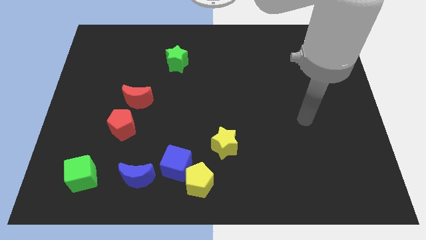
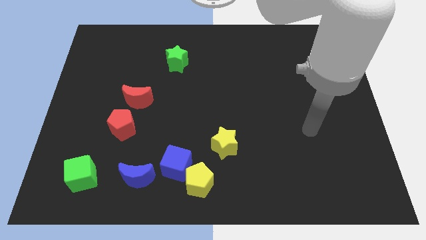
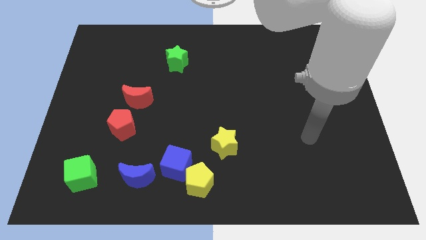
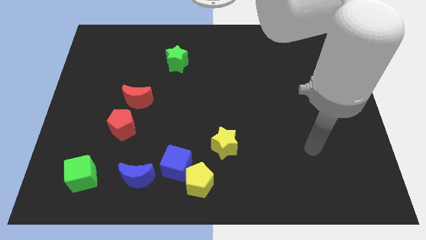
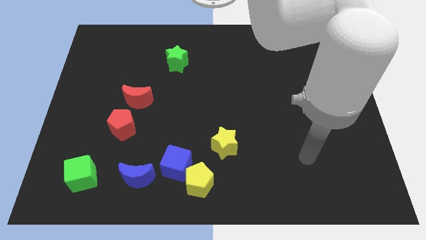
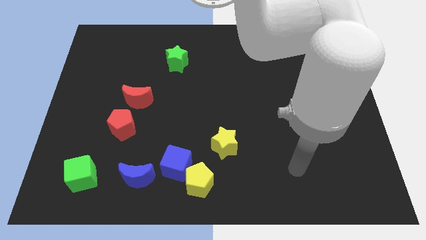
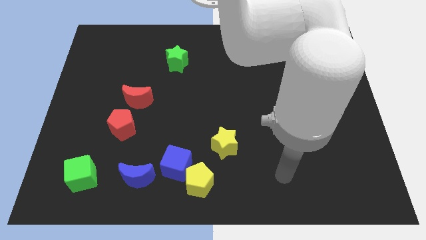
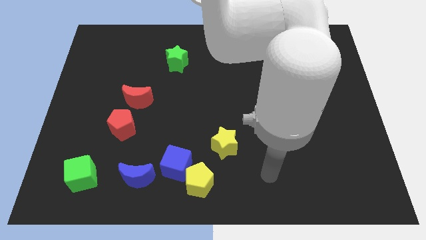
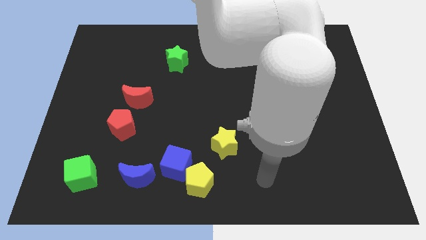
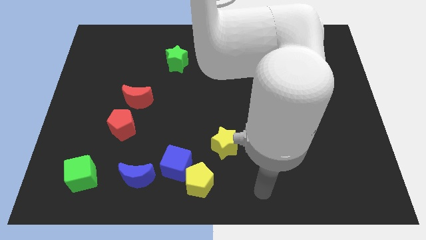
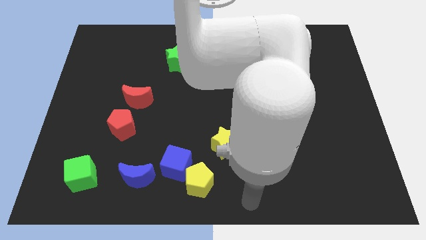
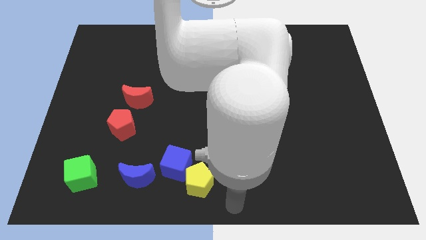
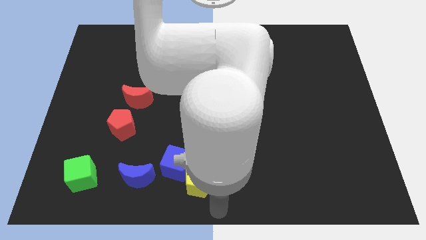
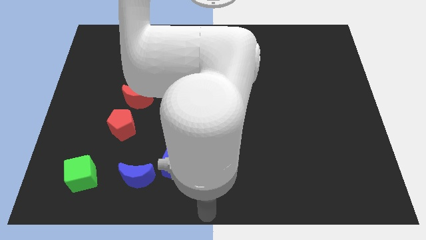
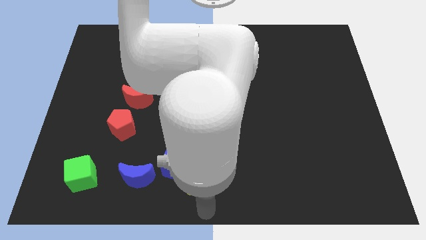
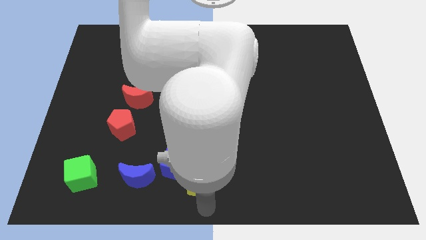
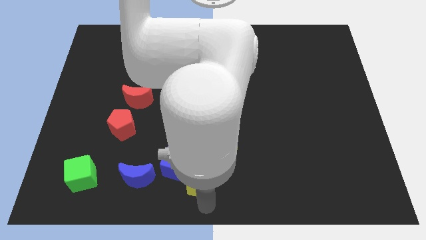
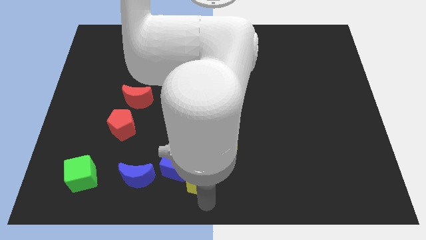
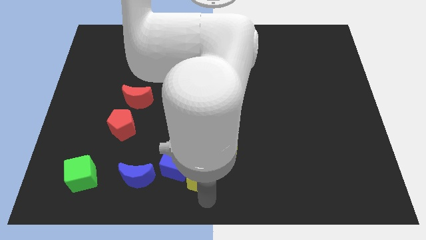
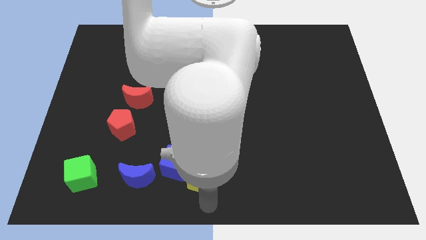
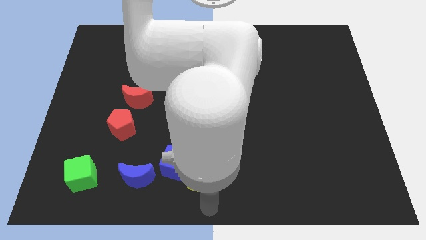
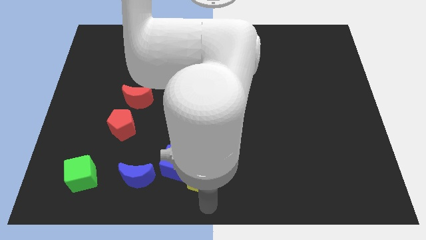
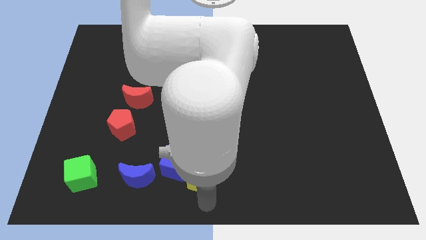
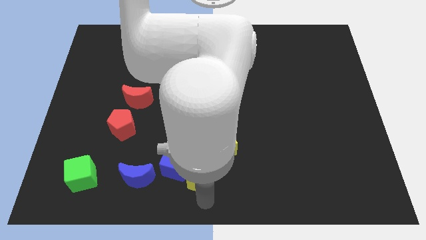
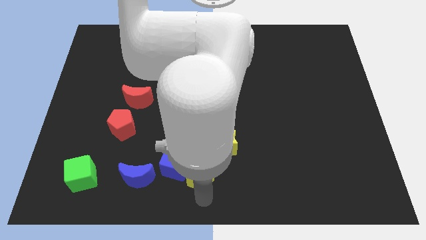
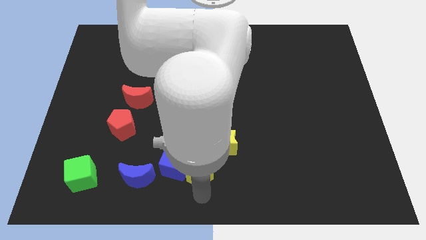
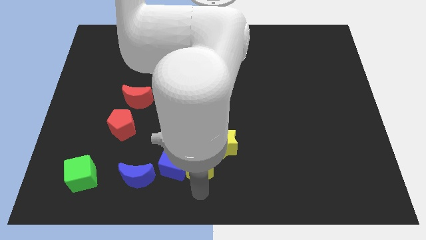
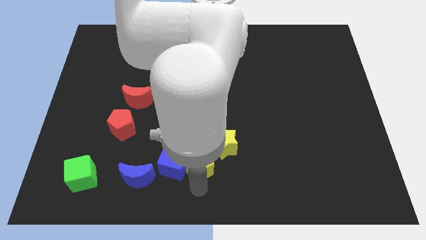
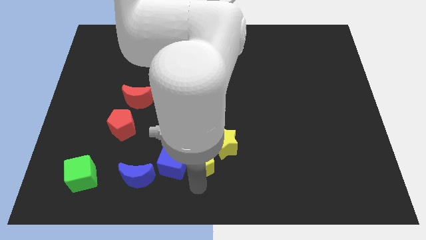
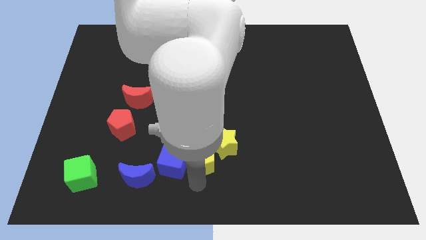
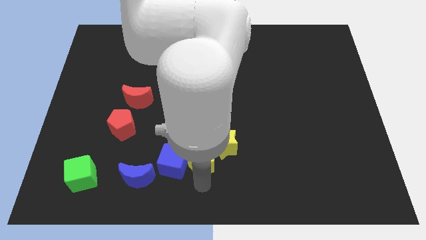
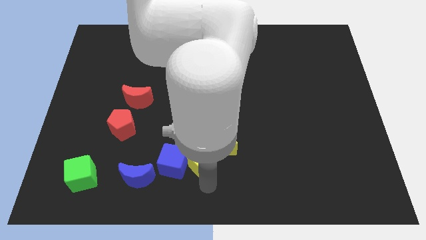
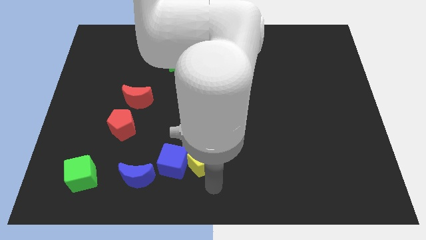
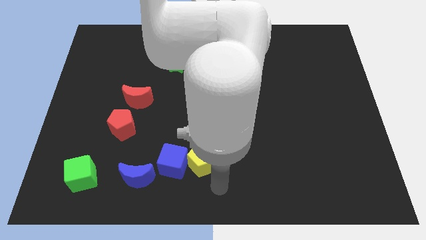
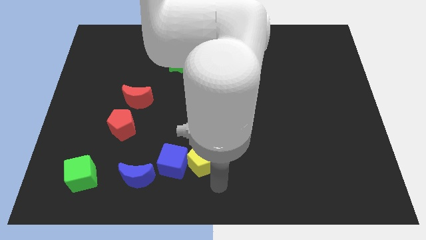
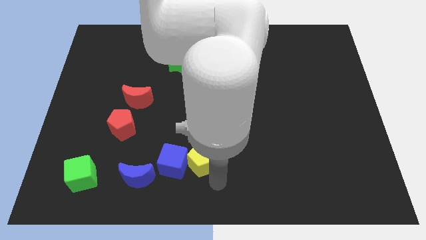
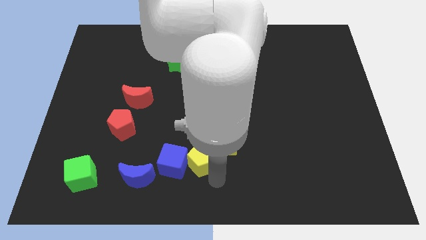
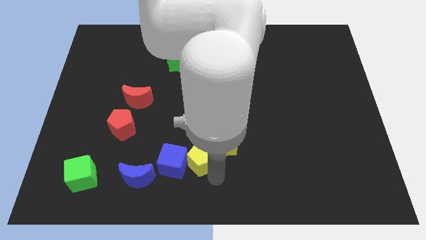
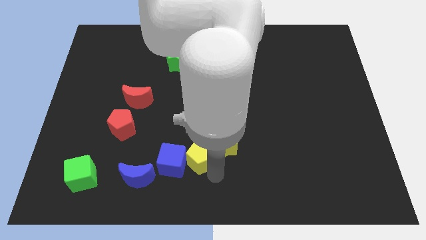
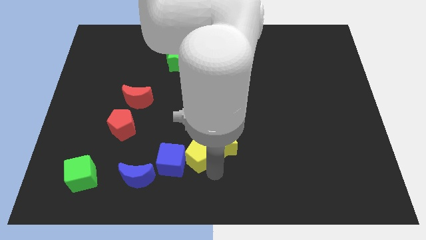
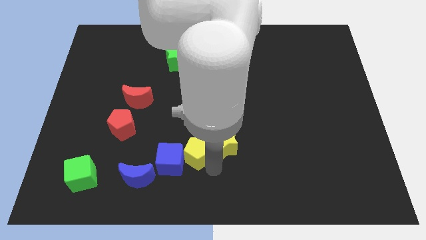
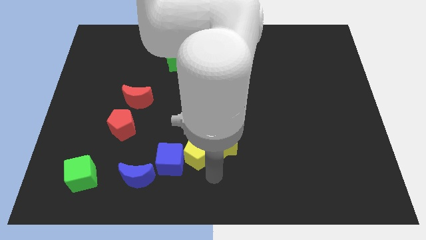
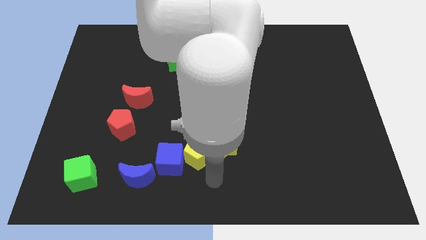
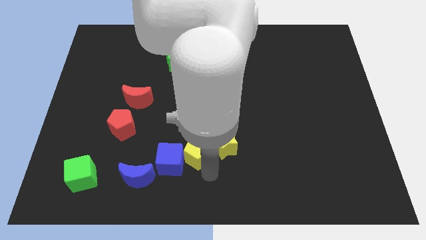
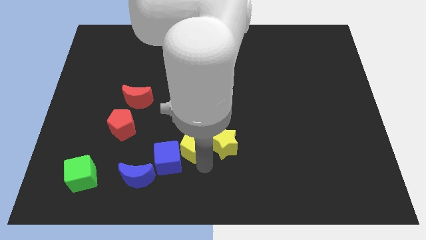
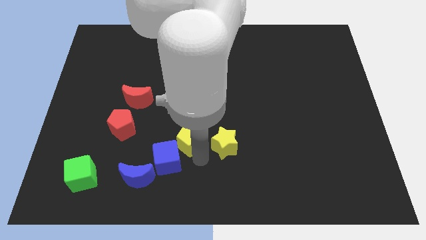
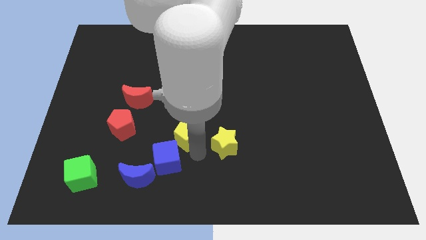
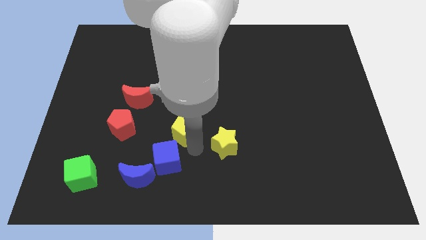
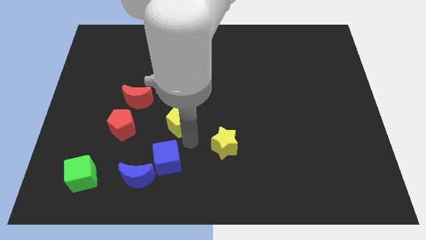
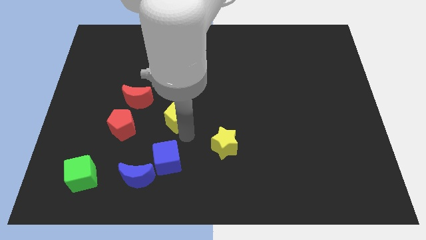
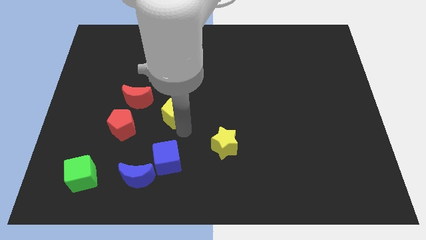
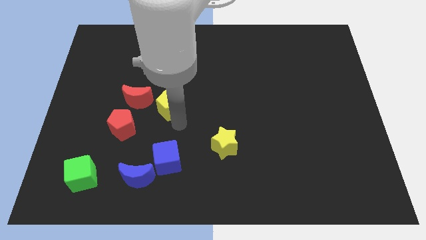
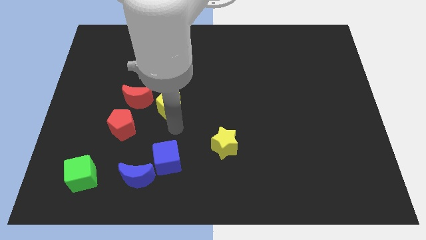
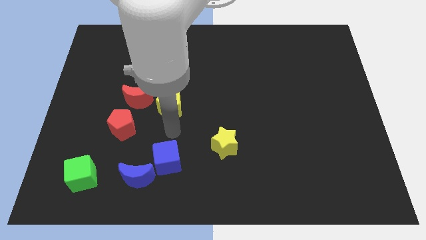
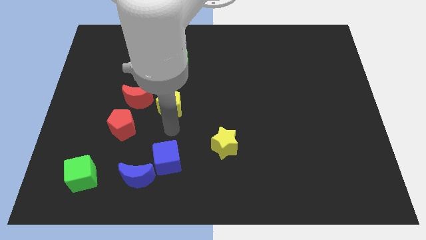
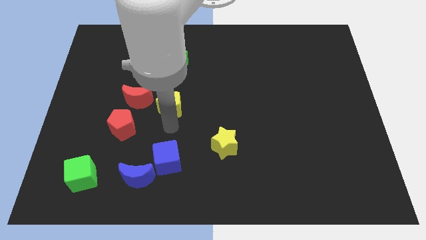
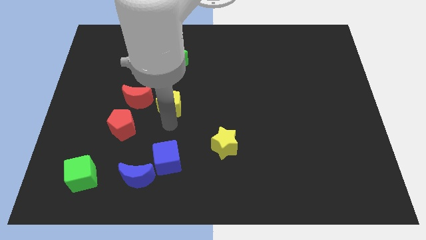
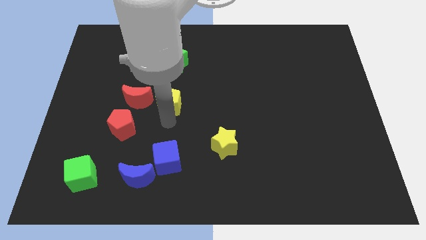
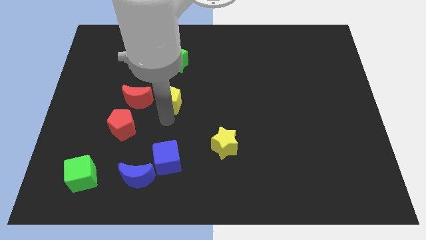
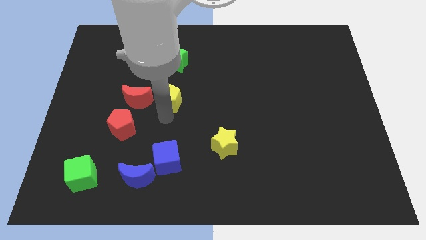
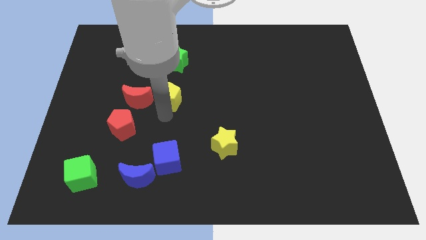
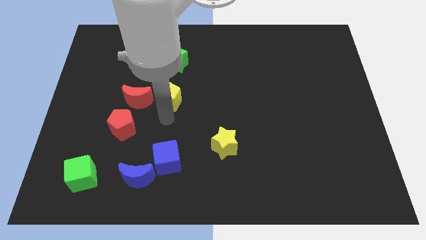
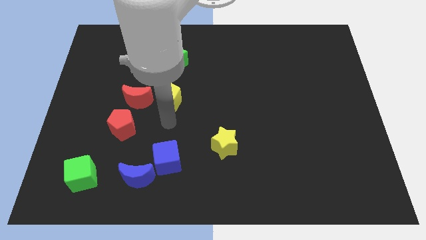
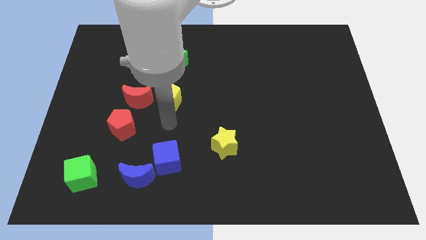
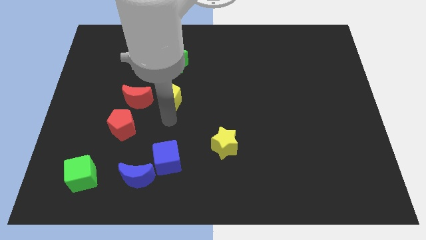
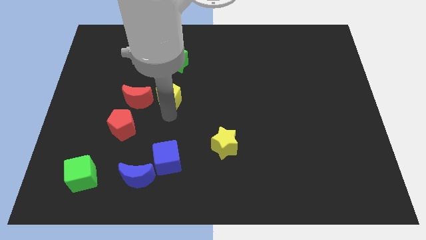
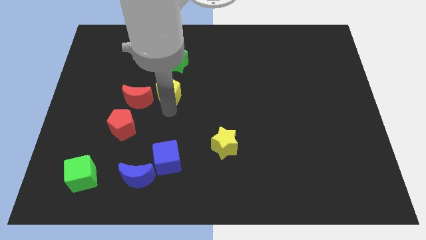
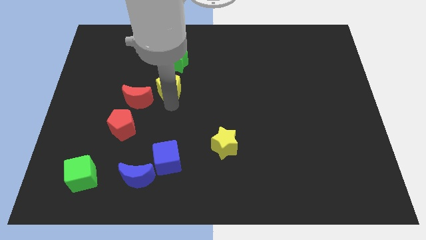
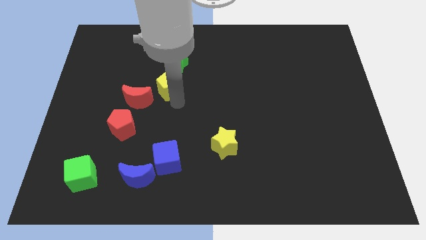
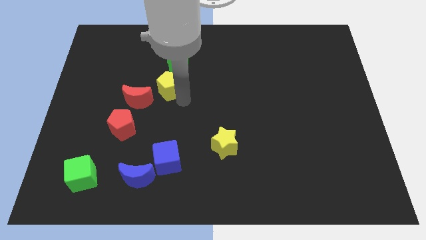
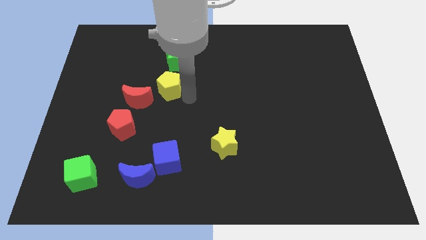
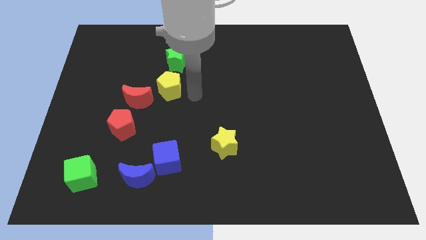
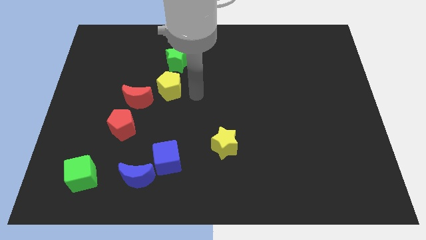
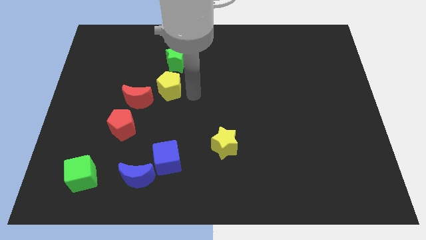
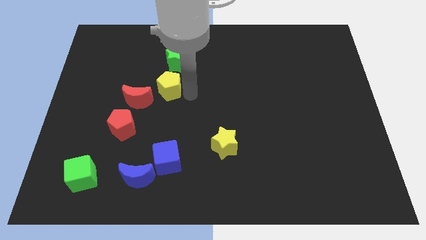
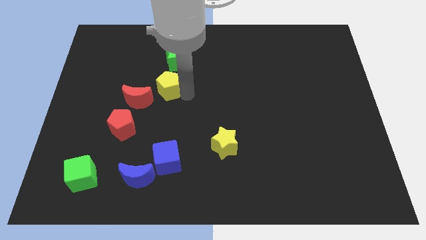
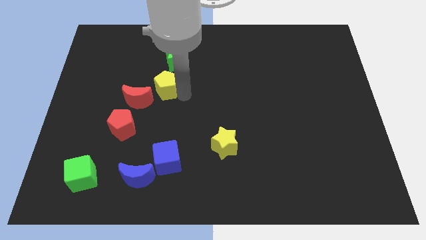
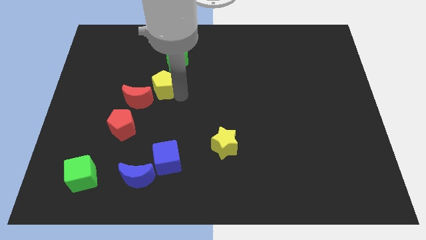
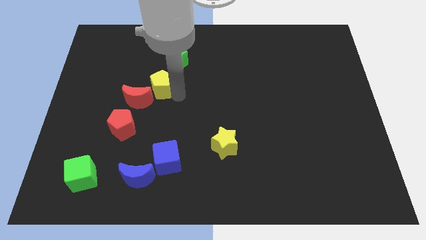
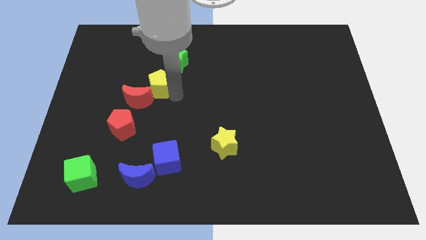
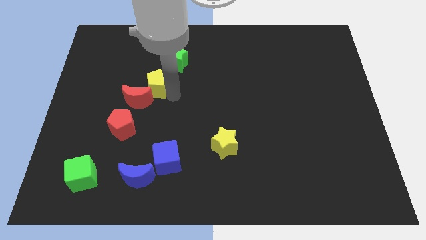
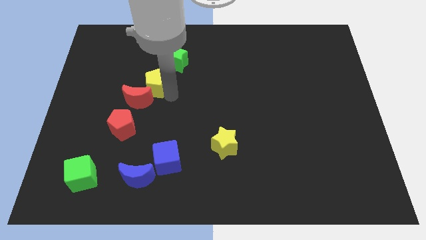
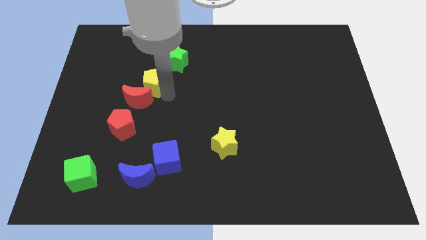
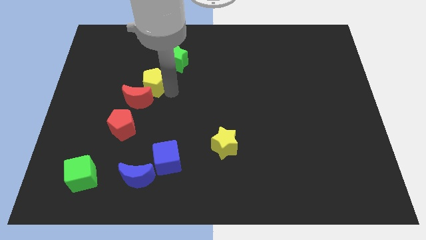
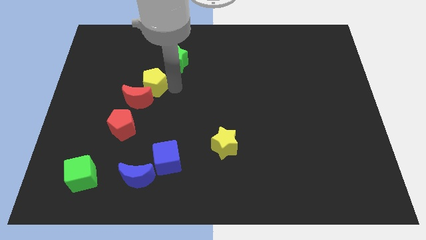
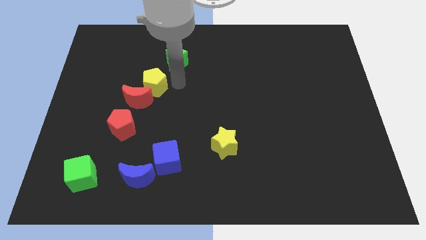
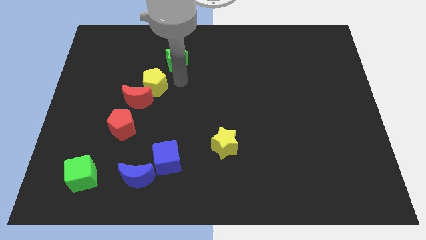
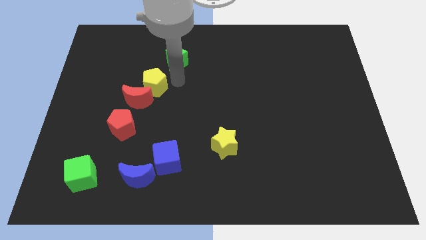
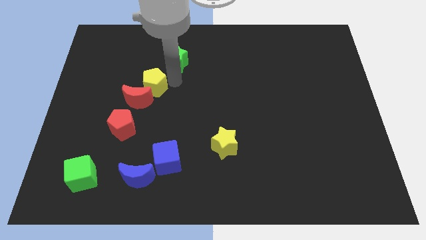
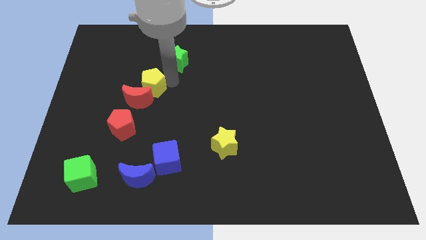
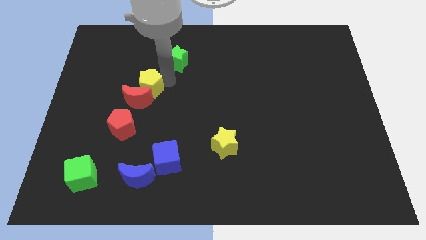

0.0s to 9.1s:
put the yellow pentagon above the red pentagon
